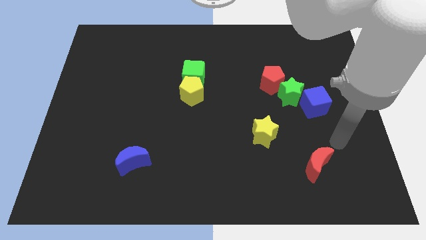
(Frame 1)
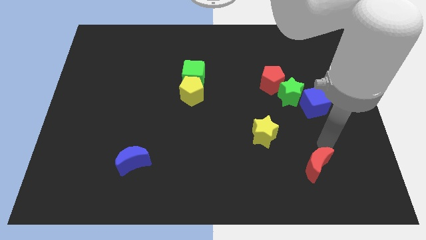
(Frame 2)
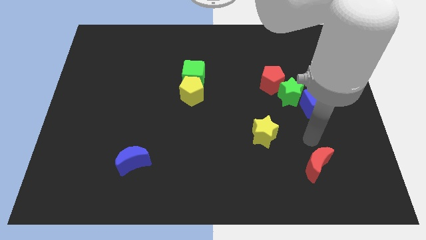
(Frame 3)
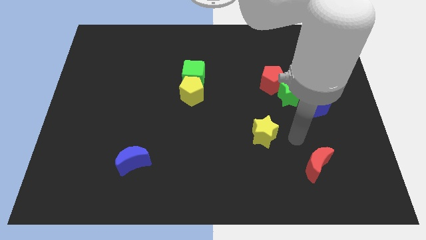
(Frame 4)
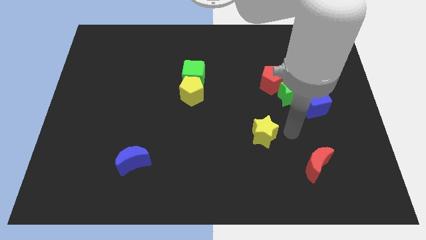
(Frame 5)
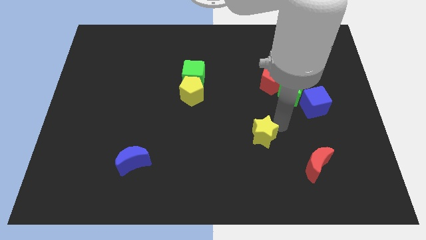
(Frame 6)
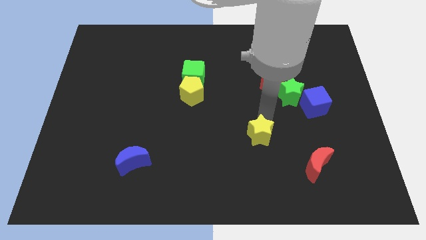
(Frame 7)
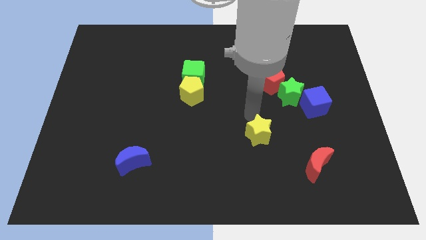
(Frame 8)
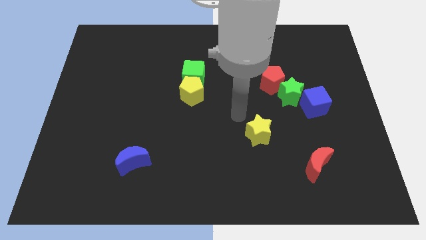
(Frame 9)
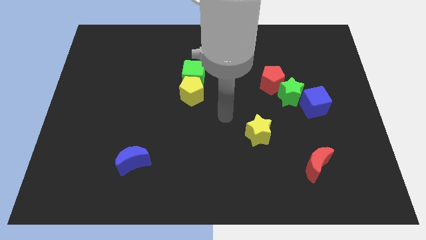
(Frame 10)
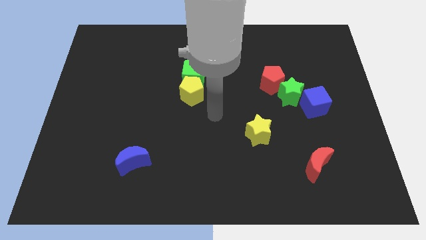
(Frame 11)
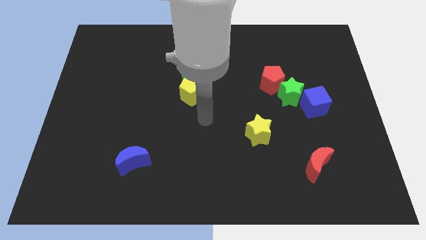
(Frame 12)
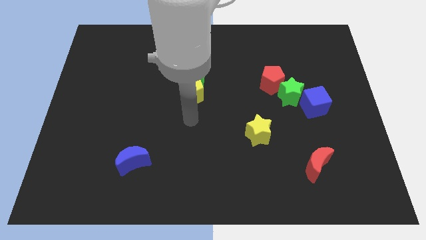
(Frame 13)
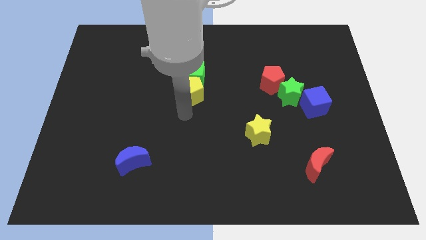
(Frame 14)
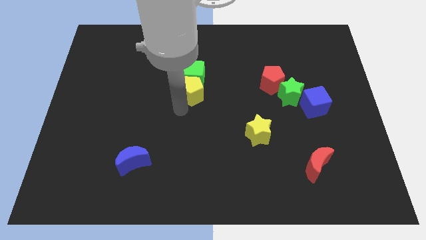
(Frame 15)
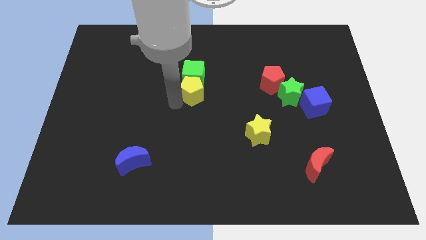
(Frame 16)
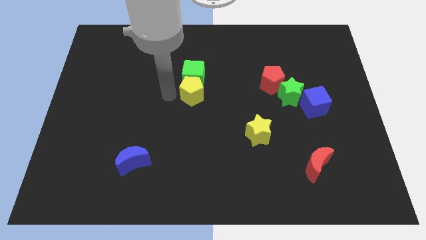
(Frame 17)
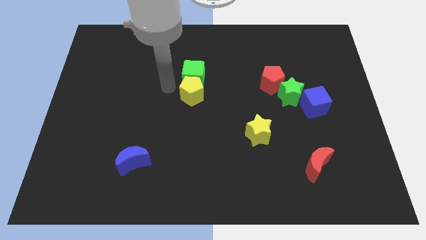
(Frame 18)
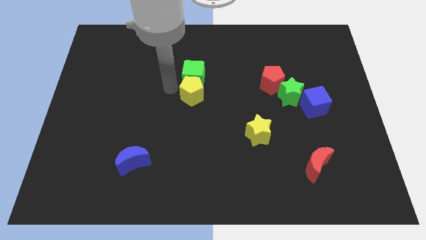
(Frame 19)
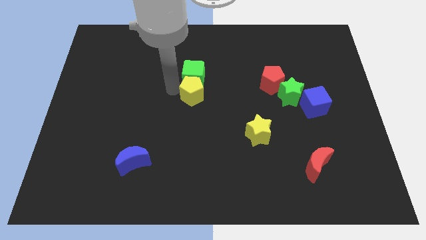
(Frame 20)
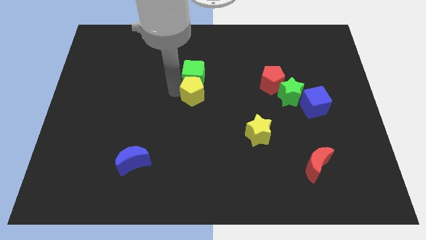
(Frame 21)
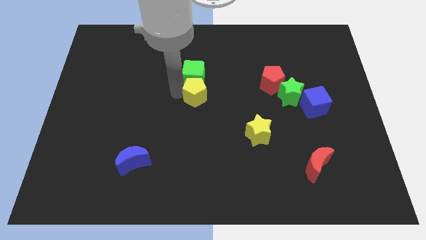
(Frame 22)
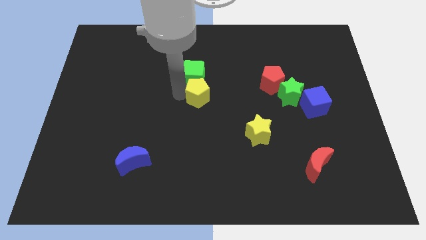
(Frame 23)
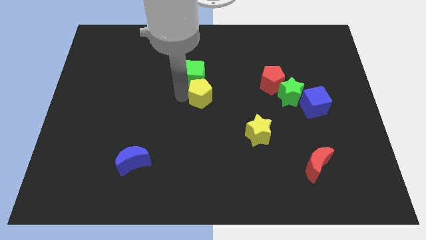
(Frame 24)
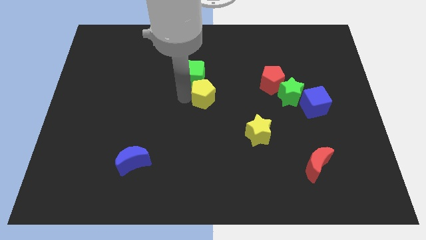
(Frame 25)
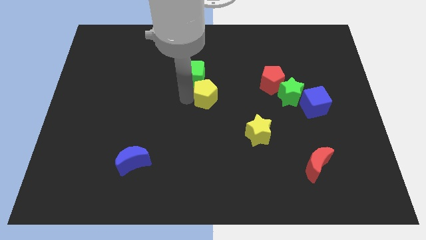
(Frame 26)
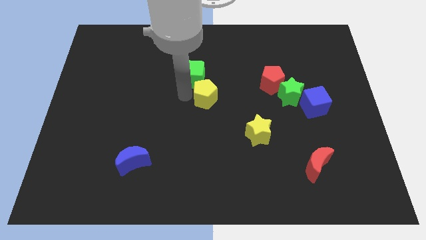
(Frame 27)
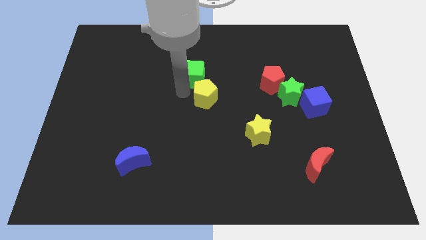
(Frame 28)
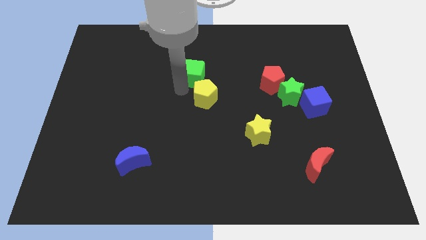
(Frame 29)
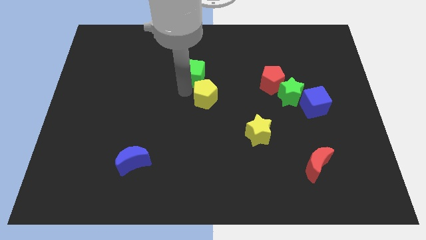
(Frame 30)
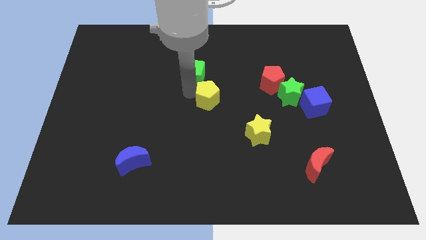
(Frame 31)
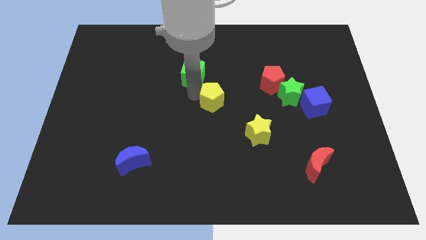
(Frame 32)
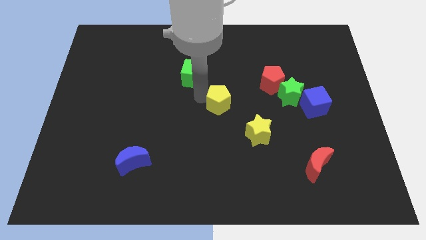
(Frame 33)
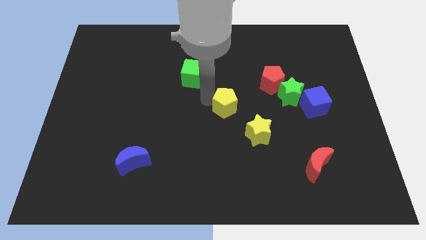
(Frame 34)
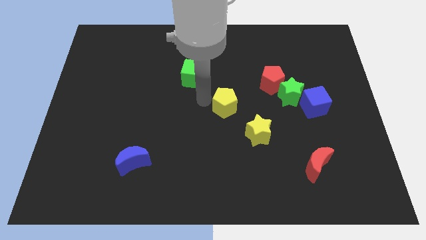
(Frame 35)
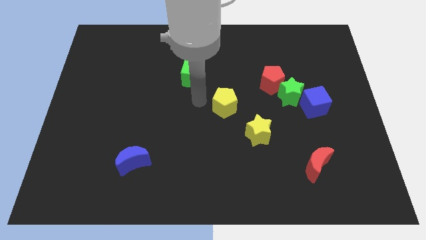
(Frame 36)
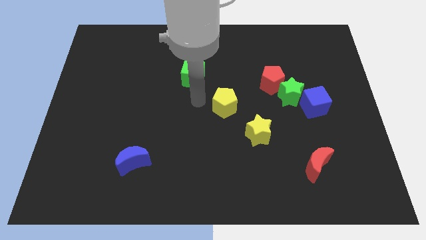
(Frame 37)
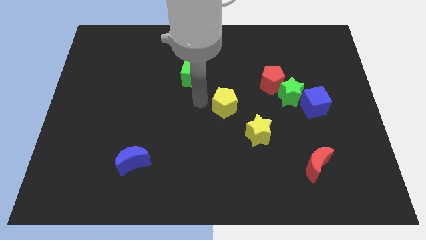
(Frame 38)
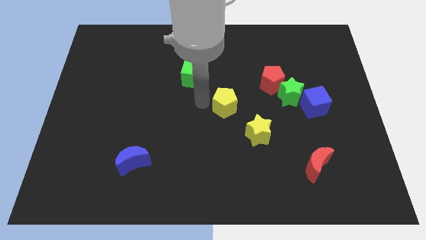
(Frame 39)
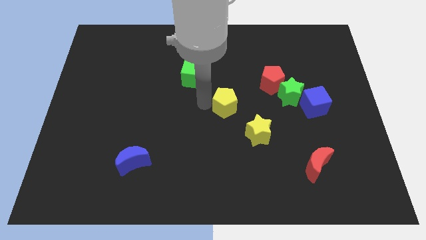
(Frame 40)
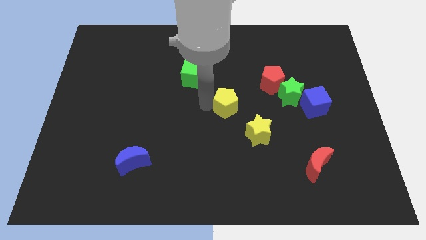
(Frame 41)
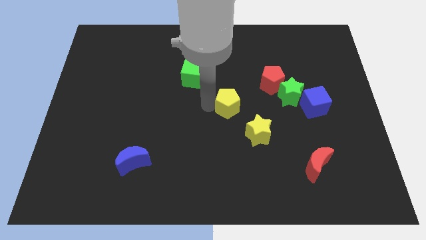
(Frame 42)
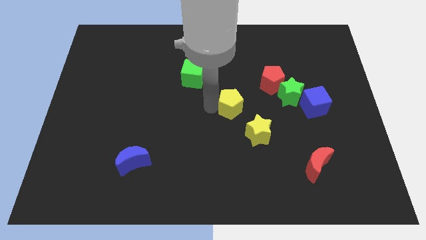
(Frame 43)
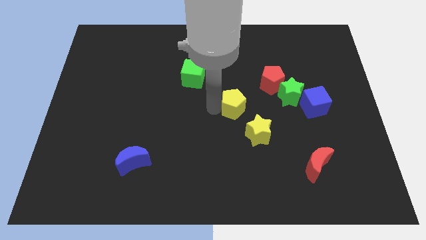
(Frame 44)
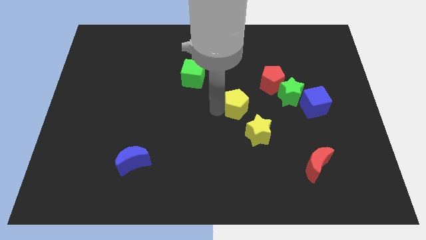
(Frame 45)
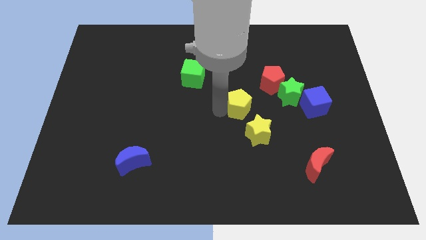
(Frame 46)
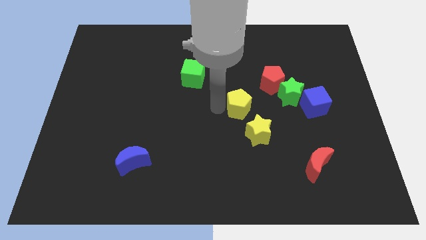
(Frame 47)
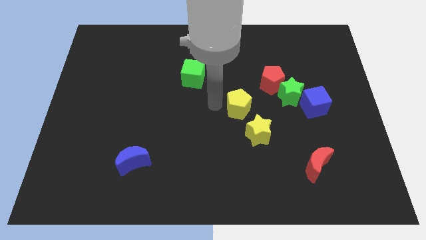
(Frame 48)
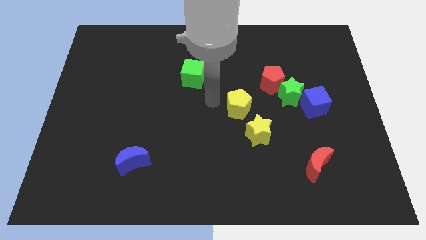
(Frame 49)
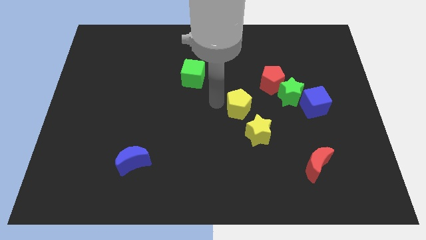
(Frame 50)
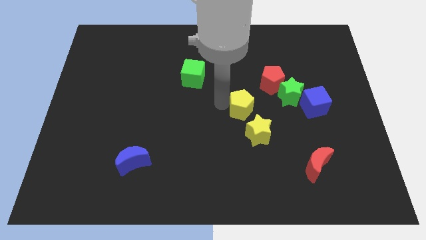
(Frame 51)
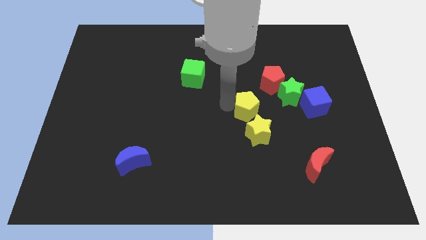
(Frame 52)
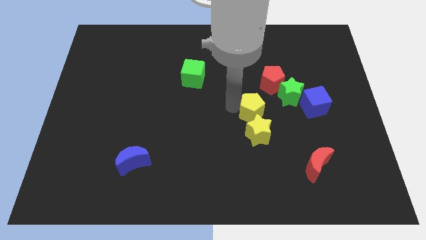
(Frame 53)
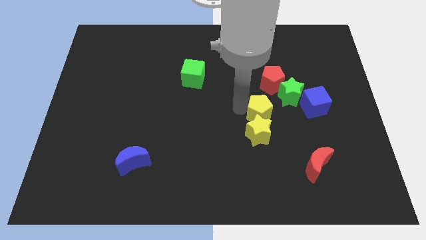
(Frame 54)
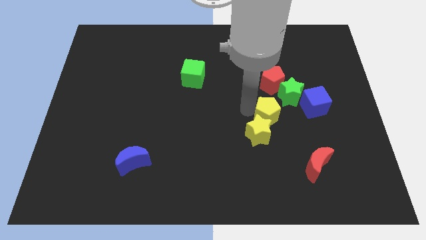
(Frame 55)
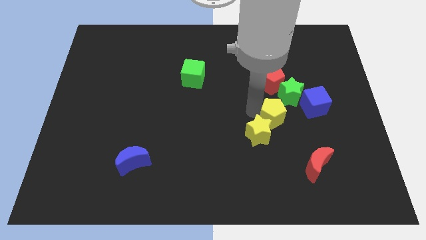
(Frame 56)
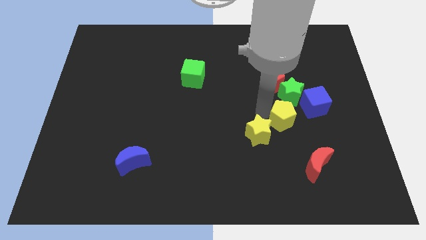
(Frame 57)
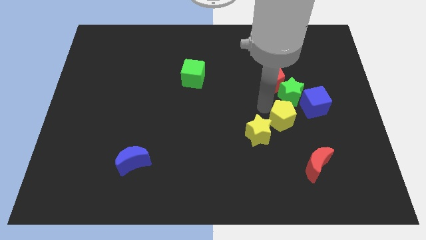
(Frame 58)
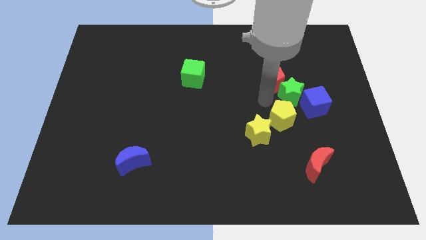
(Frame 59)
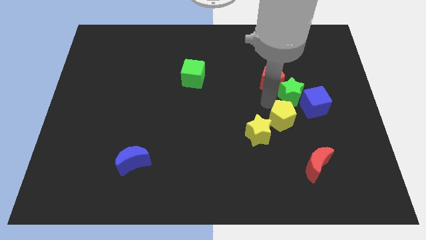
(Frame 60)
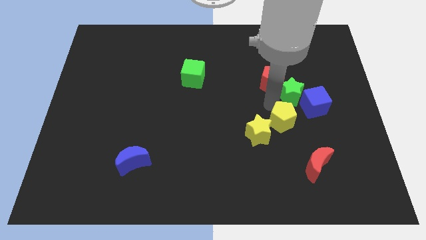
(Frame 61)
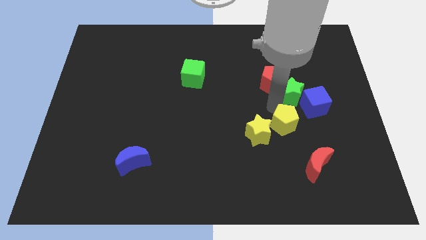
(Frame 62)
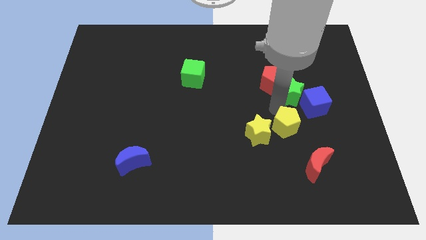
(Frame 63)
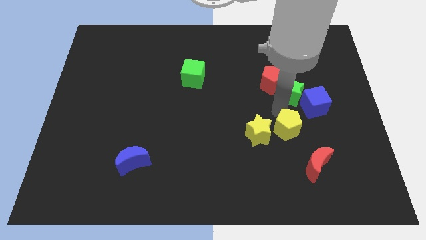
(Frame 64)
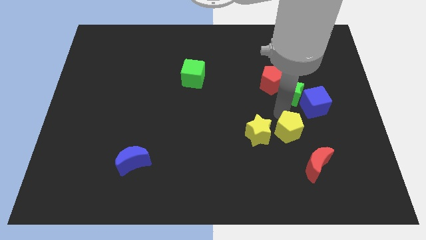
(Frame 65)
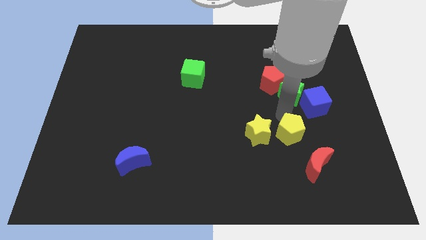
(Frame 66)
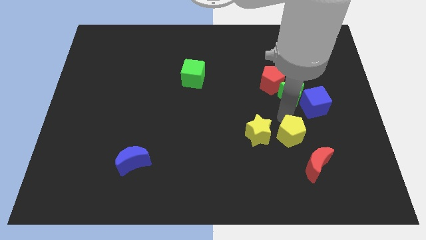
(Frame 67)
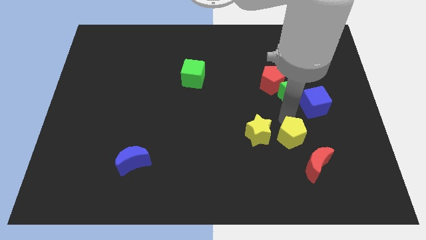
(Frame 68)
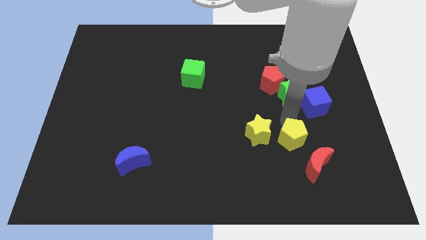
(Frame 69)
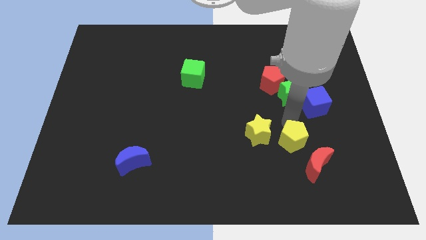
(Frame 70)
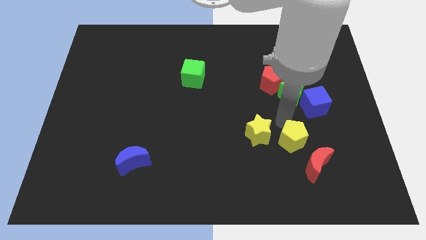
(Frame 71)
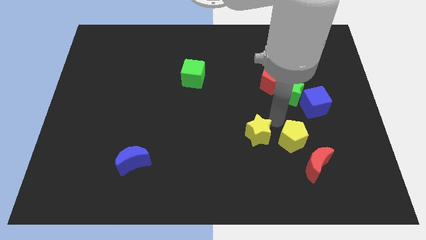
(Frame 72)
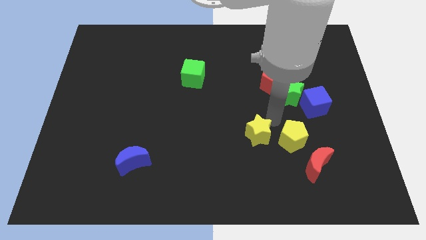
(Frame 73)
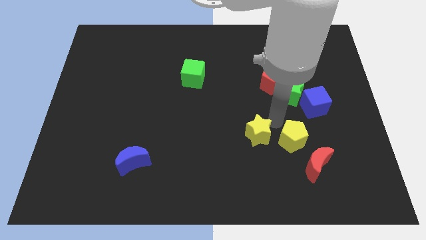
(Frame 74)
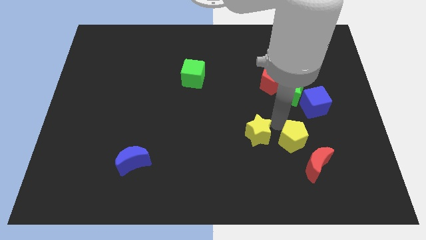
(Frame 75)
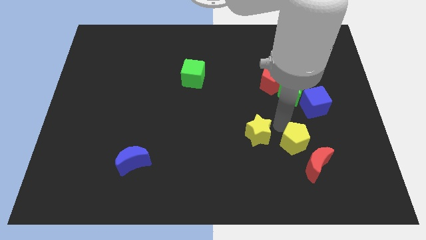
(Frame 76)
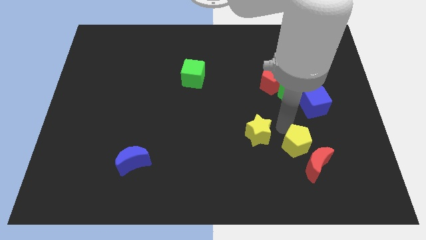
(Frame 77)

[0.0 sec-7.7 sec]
push the yellow pentagon next to the red moon
